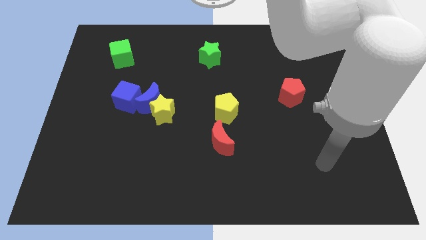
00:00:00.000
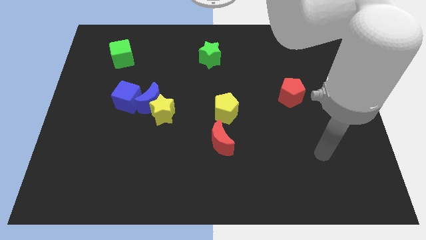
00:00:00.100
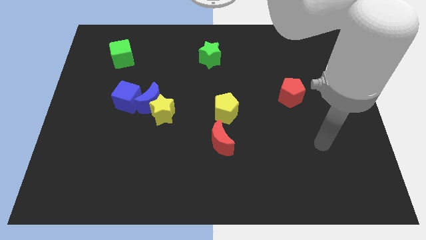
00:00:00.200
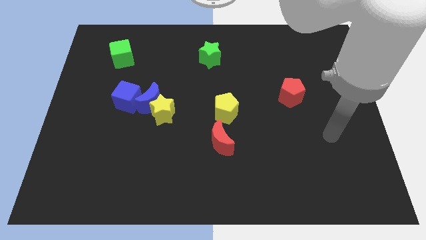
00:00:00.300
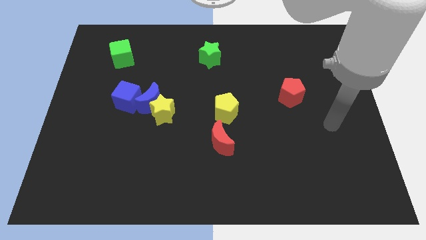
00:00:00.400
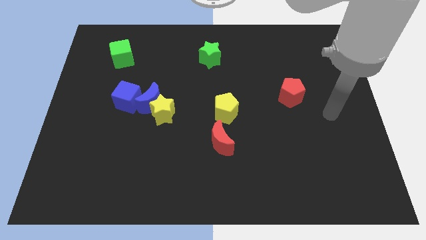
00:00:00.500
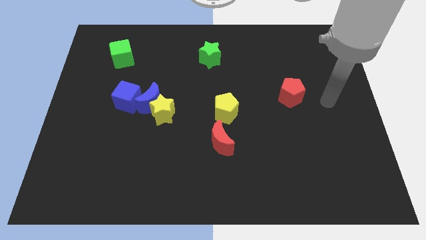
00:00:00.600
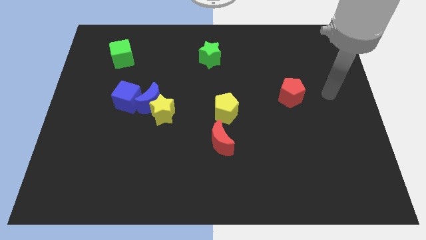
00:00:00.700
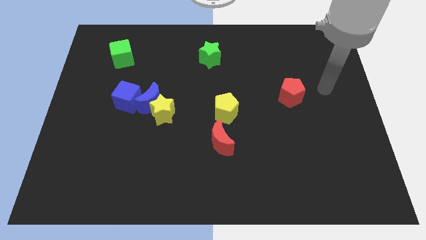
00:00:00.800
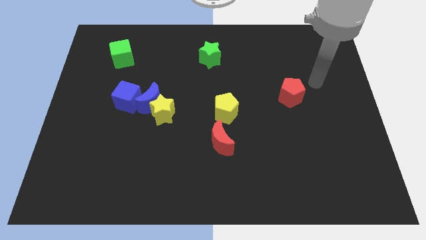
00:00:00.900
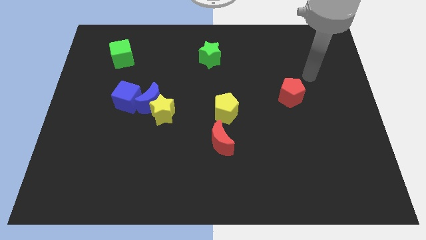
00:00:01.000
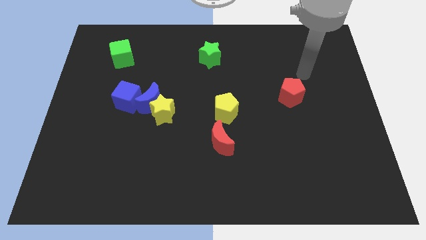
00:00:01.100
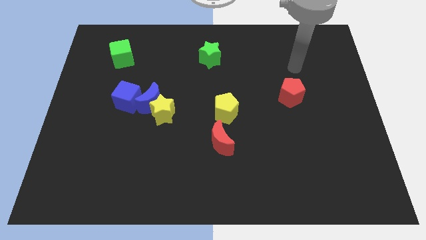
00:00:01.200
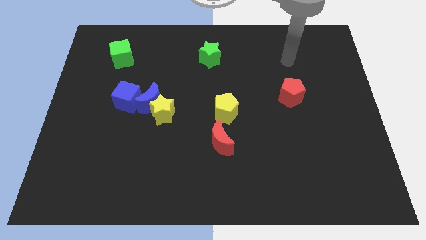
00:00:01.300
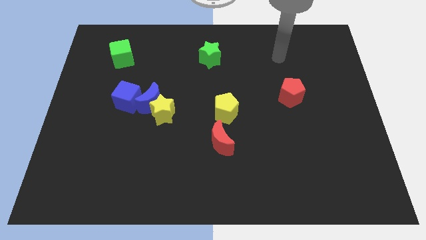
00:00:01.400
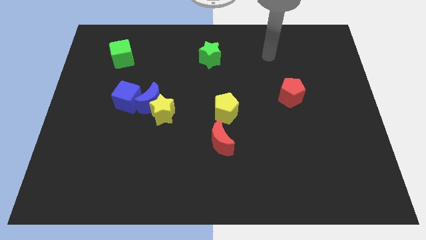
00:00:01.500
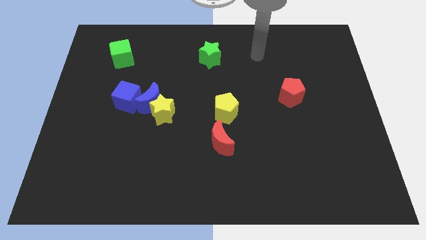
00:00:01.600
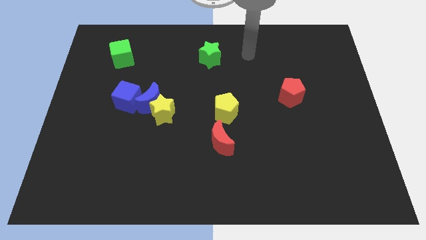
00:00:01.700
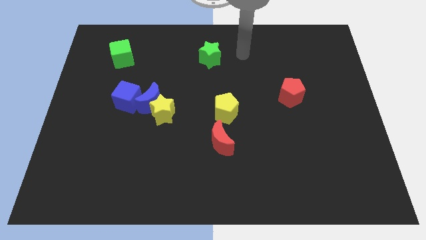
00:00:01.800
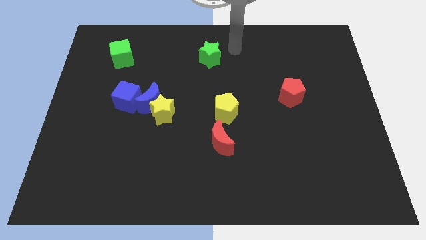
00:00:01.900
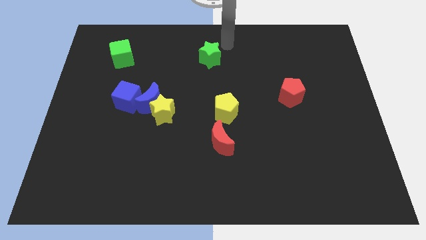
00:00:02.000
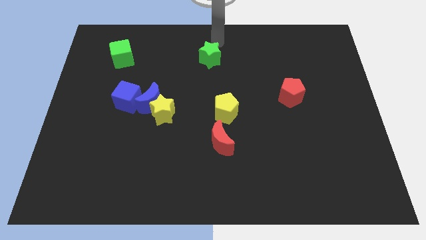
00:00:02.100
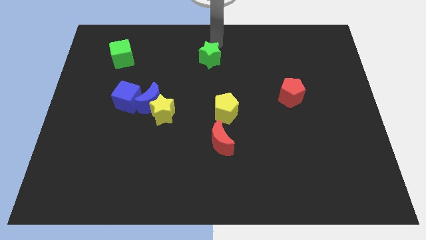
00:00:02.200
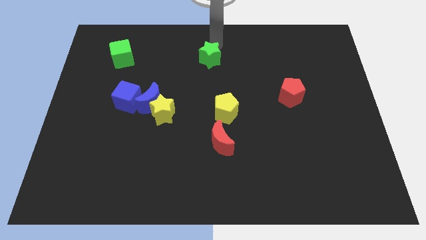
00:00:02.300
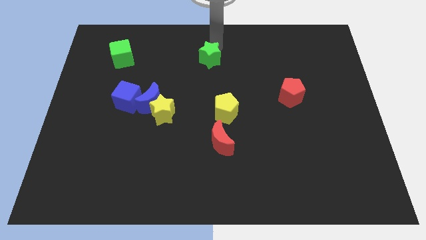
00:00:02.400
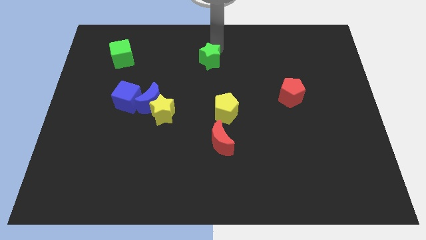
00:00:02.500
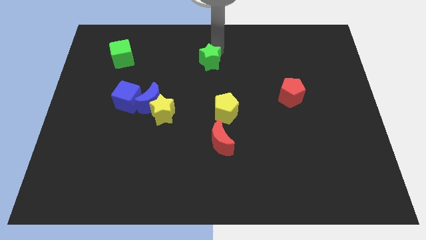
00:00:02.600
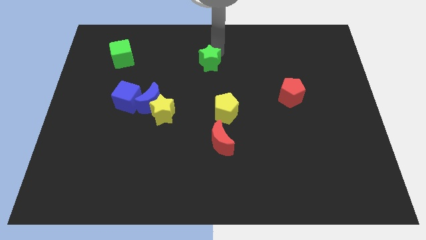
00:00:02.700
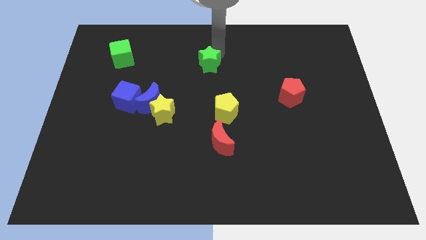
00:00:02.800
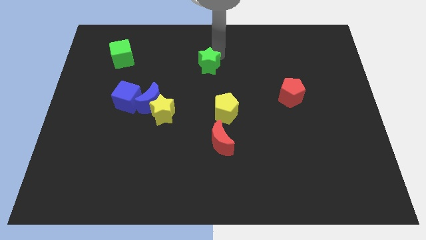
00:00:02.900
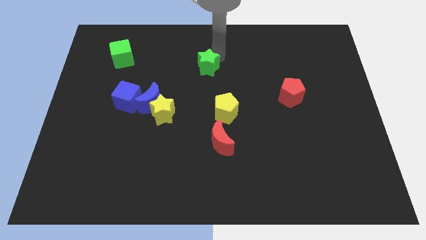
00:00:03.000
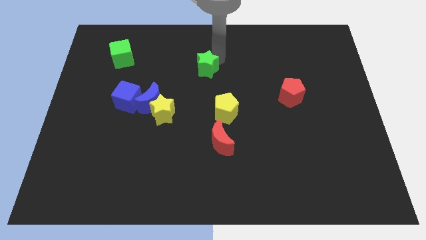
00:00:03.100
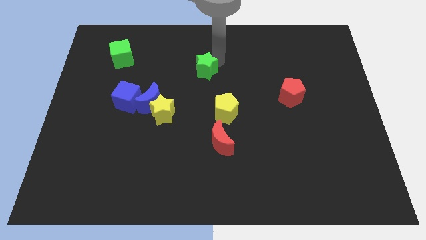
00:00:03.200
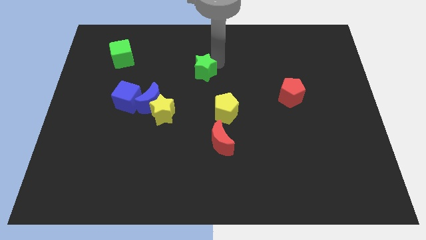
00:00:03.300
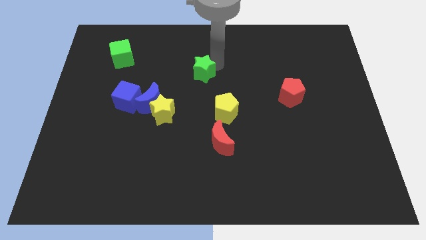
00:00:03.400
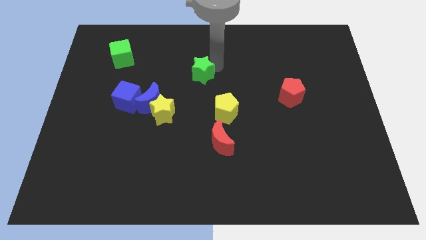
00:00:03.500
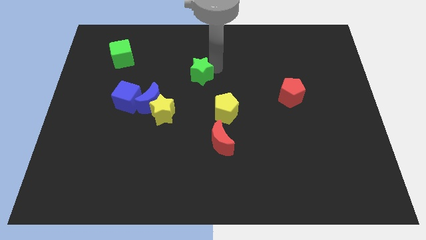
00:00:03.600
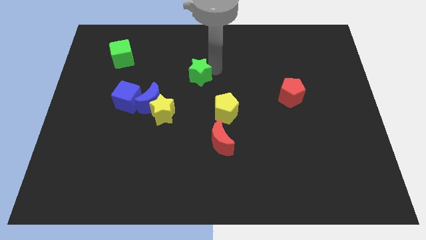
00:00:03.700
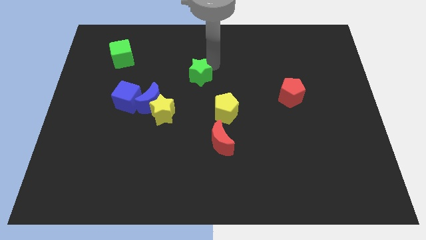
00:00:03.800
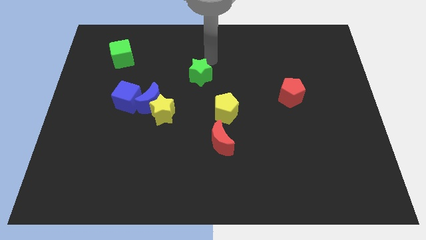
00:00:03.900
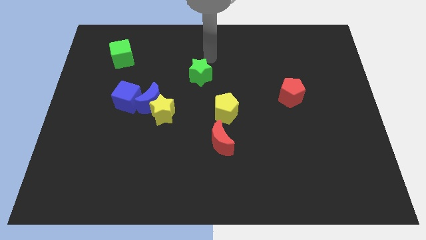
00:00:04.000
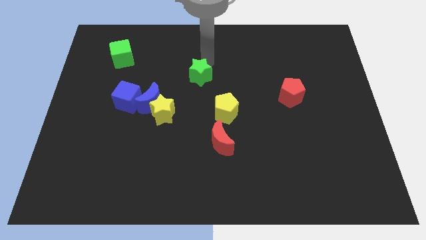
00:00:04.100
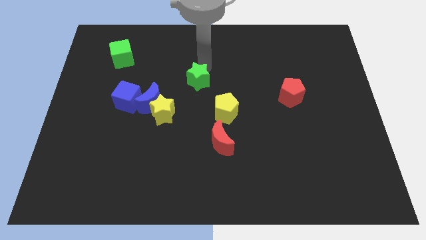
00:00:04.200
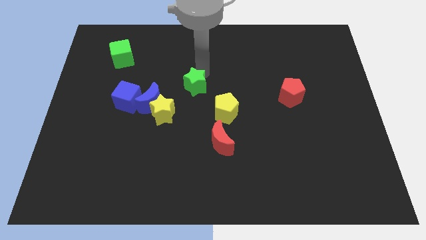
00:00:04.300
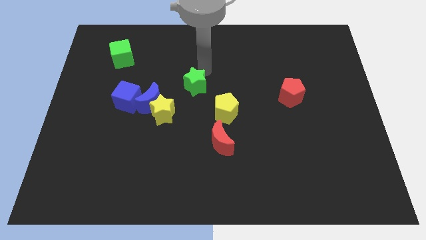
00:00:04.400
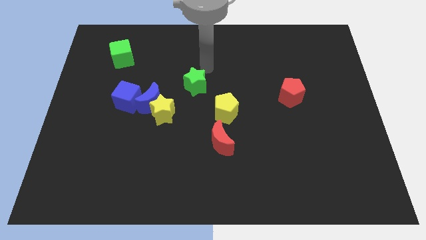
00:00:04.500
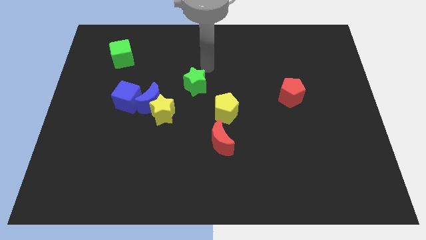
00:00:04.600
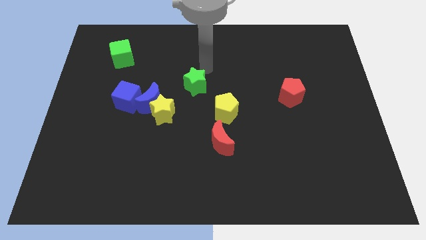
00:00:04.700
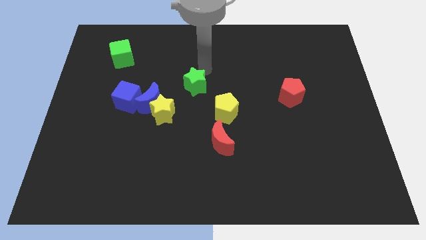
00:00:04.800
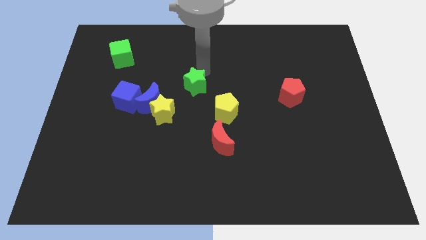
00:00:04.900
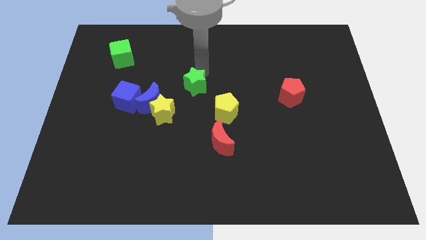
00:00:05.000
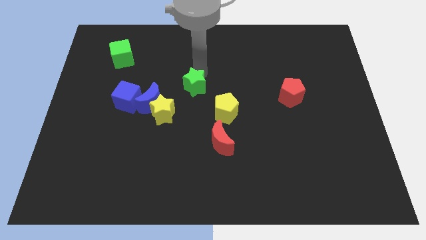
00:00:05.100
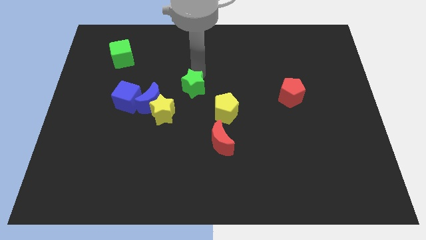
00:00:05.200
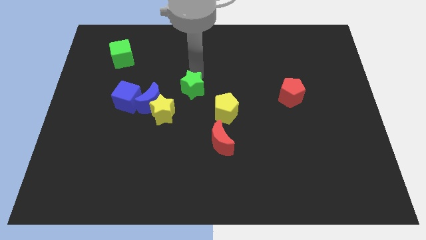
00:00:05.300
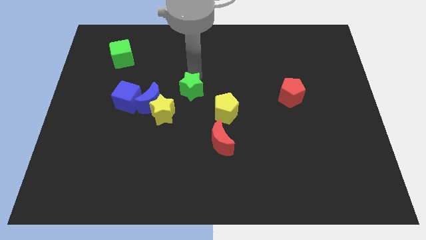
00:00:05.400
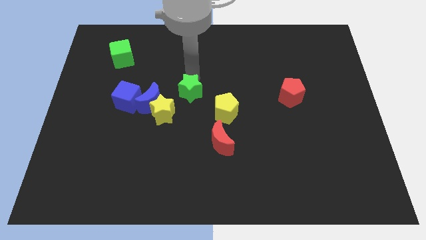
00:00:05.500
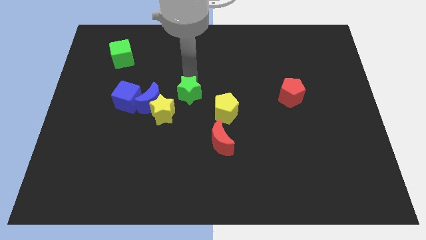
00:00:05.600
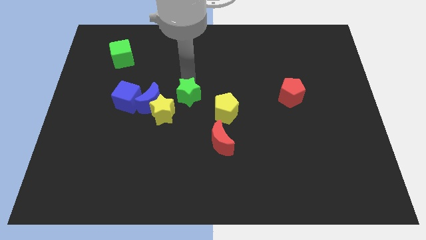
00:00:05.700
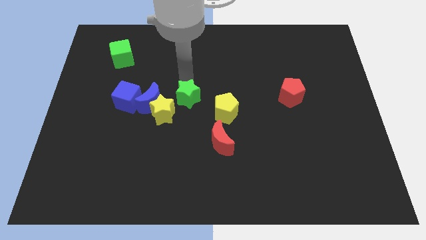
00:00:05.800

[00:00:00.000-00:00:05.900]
move the green star to the left of the yellow pentagon
